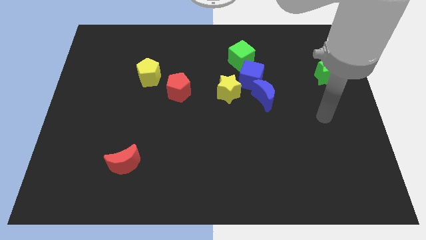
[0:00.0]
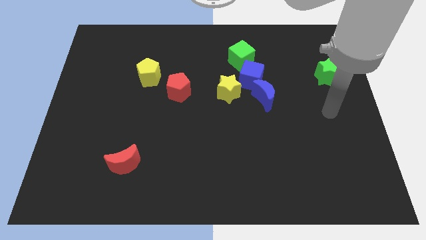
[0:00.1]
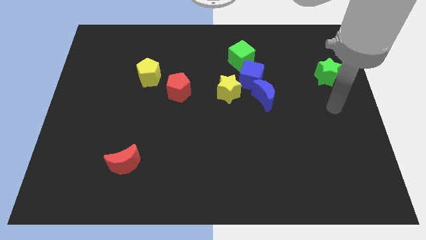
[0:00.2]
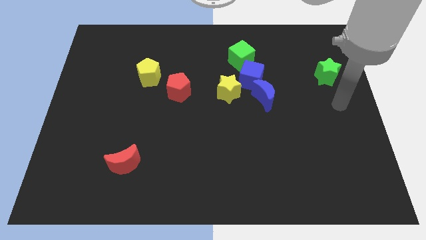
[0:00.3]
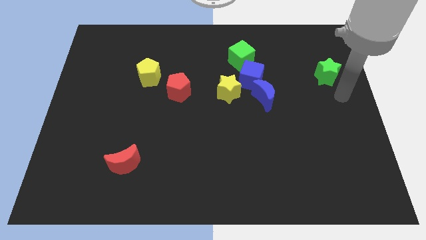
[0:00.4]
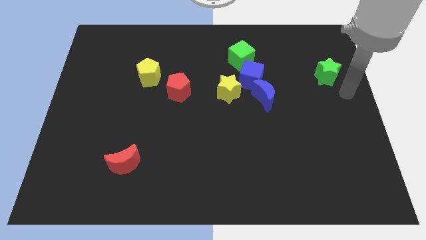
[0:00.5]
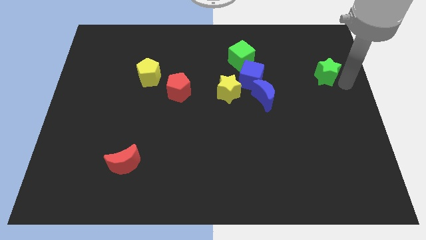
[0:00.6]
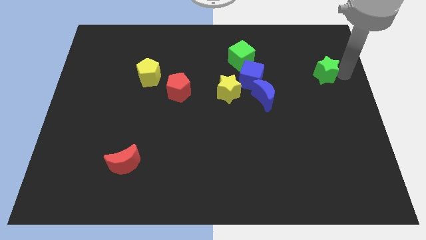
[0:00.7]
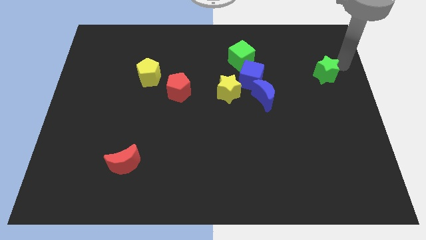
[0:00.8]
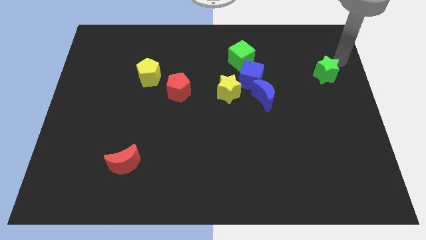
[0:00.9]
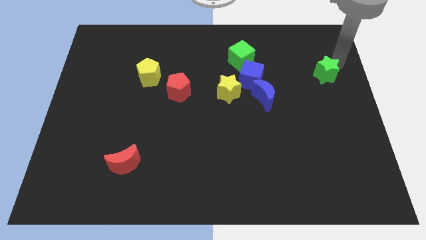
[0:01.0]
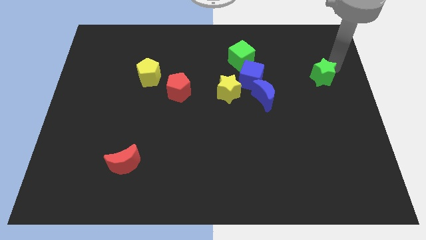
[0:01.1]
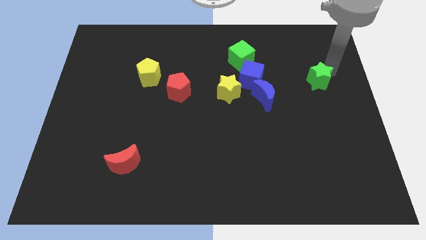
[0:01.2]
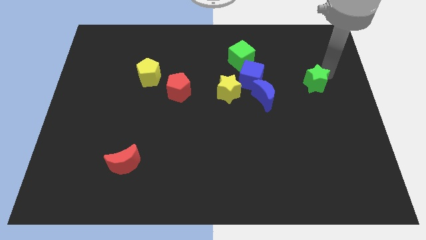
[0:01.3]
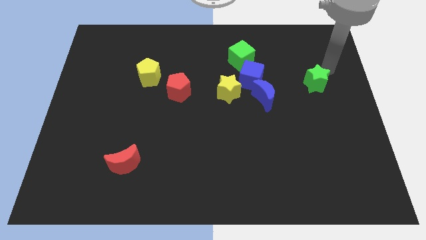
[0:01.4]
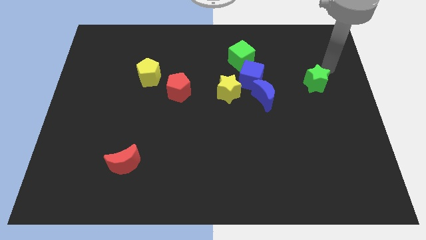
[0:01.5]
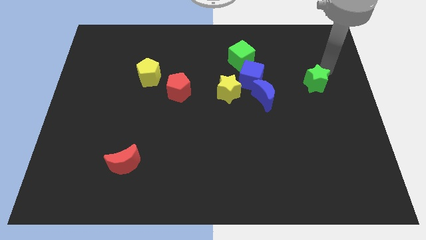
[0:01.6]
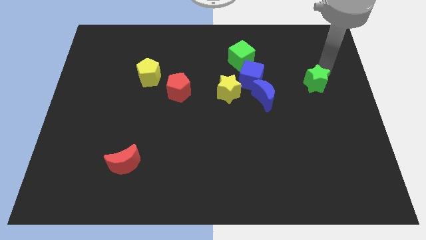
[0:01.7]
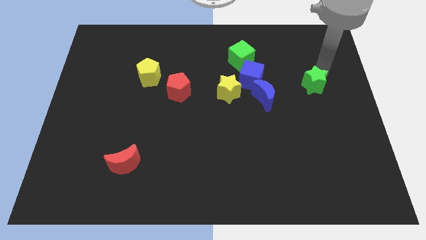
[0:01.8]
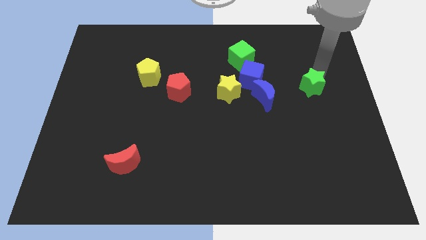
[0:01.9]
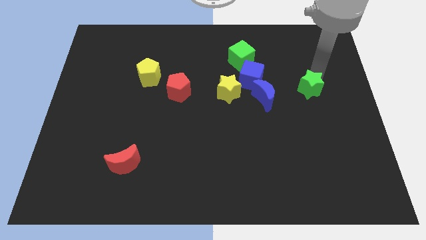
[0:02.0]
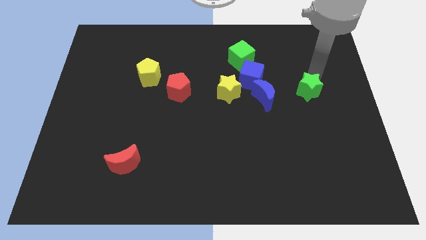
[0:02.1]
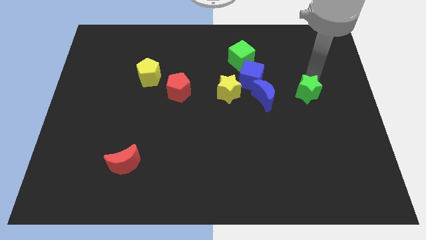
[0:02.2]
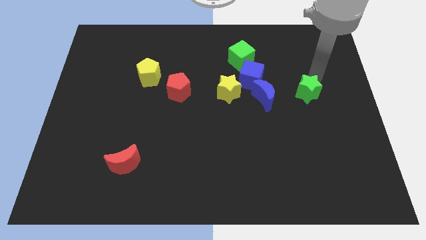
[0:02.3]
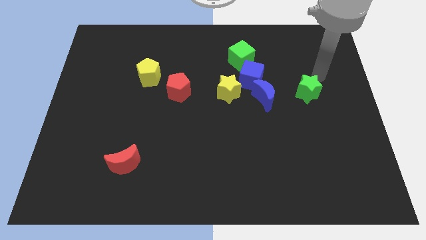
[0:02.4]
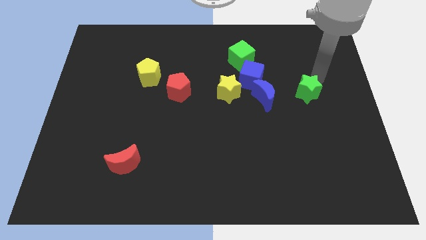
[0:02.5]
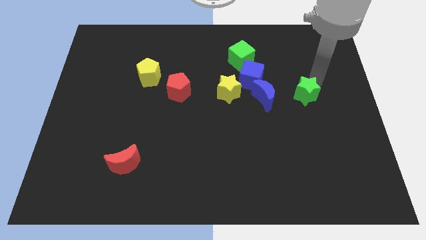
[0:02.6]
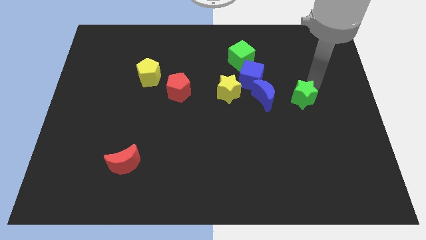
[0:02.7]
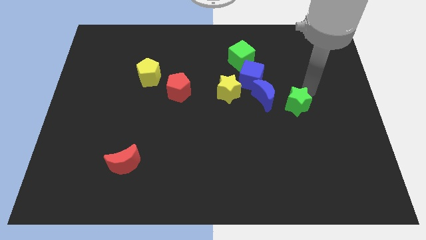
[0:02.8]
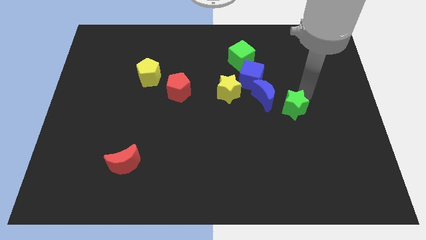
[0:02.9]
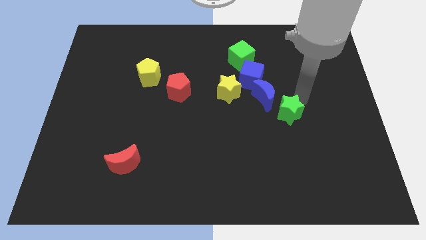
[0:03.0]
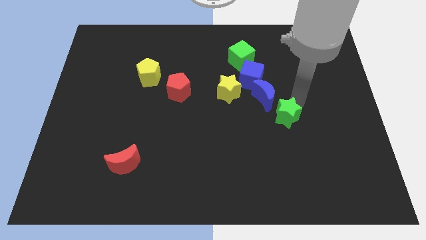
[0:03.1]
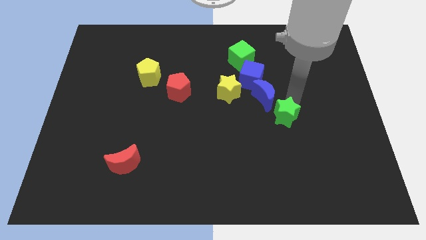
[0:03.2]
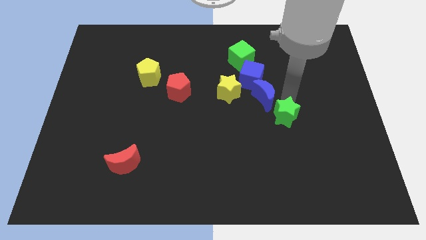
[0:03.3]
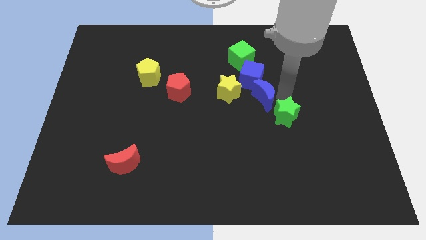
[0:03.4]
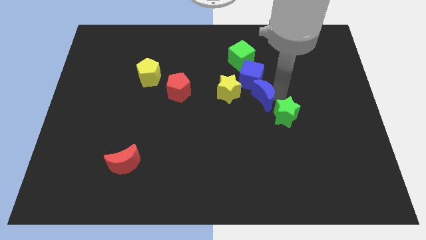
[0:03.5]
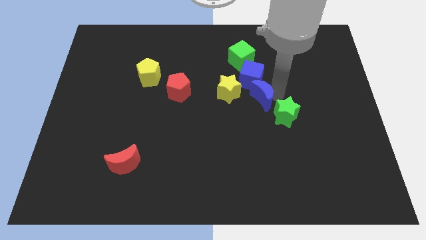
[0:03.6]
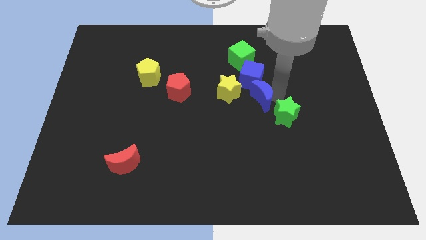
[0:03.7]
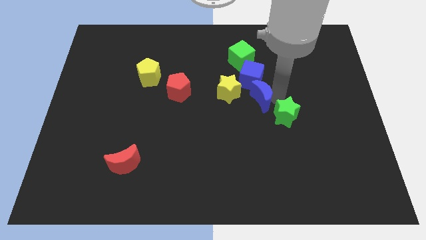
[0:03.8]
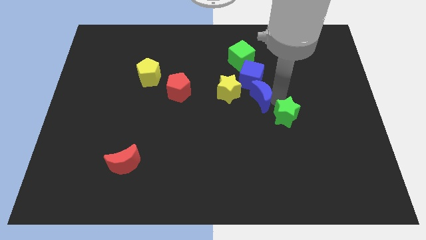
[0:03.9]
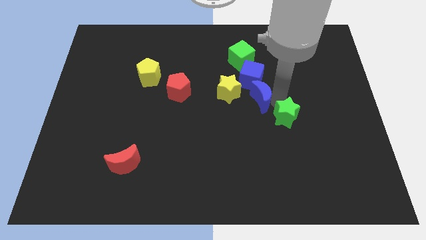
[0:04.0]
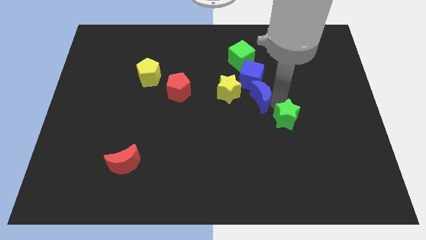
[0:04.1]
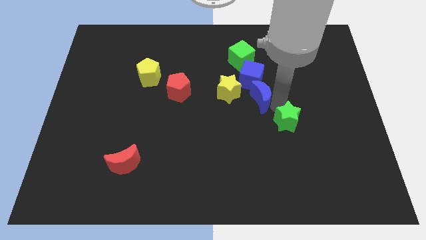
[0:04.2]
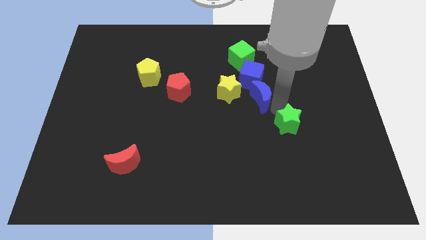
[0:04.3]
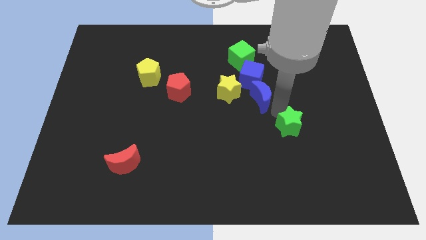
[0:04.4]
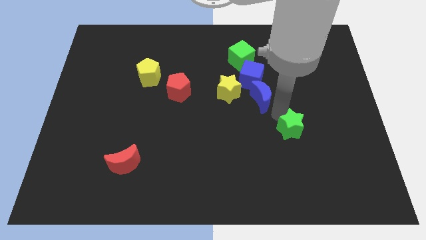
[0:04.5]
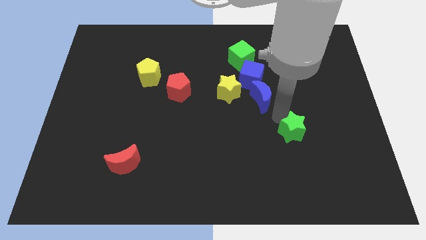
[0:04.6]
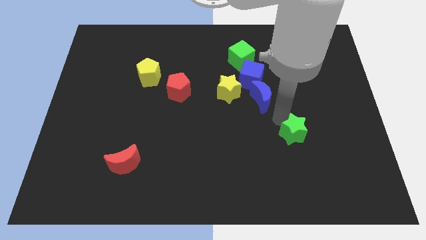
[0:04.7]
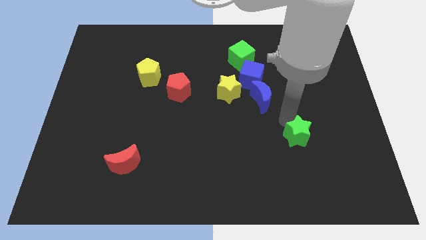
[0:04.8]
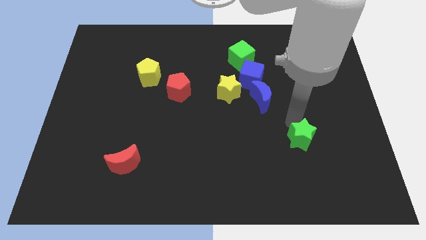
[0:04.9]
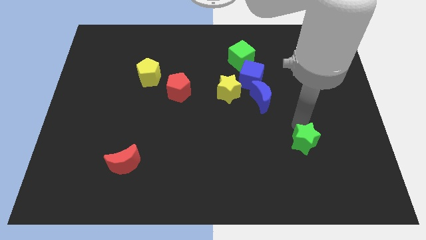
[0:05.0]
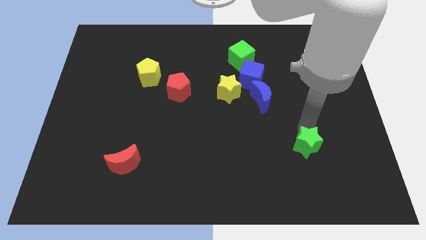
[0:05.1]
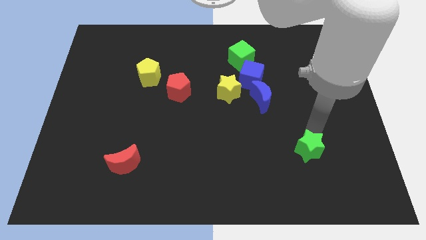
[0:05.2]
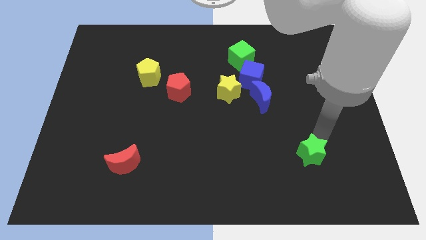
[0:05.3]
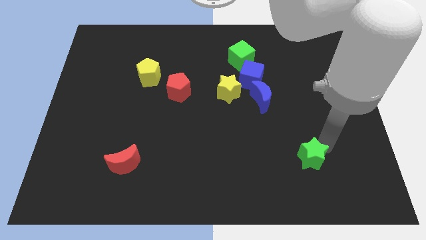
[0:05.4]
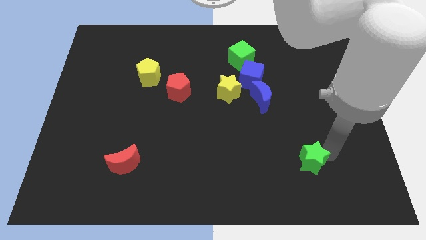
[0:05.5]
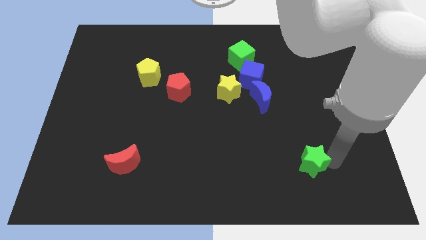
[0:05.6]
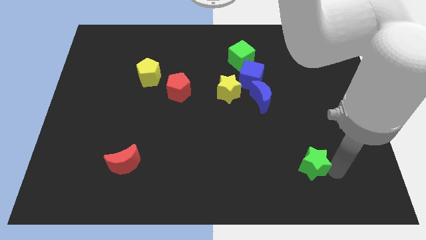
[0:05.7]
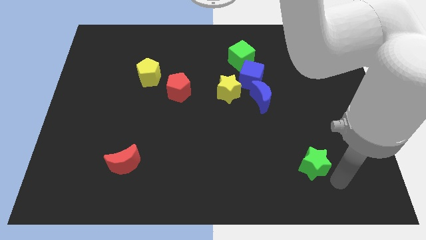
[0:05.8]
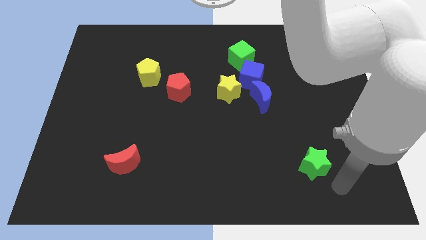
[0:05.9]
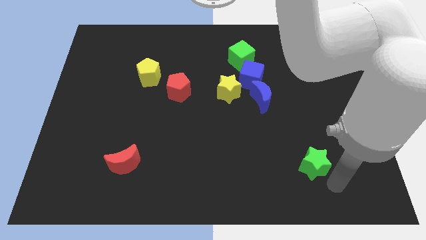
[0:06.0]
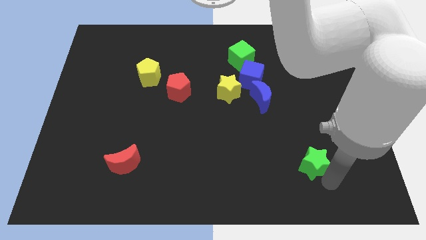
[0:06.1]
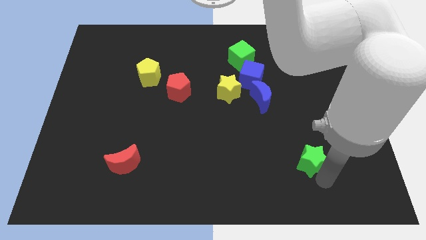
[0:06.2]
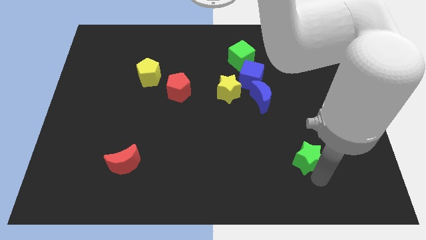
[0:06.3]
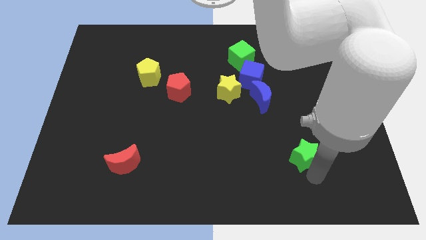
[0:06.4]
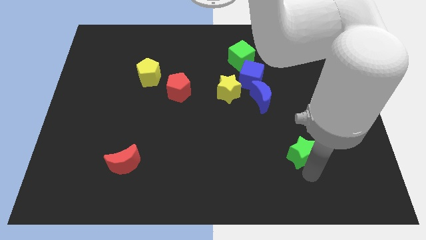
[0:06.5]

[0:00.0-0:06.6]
slide the green star down and then to the left

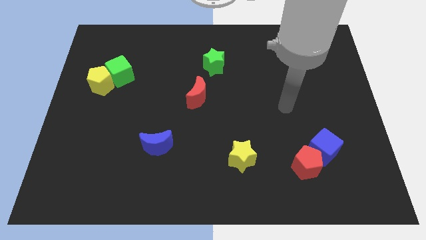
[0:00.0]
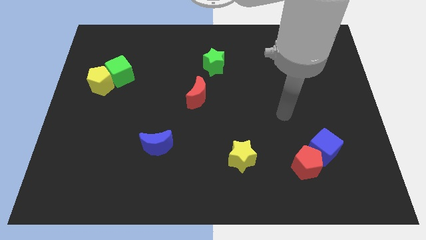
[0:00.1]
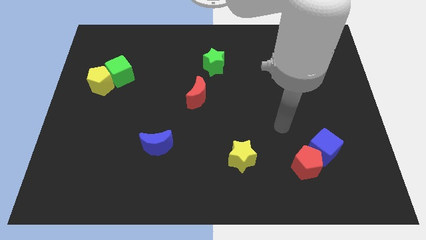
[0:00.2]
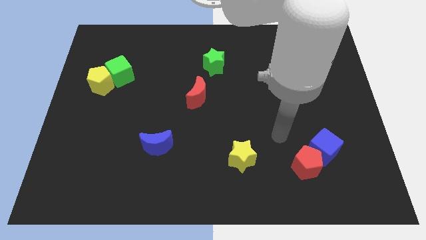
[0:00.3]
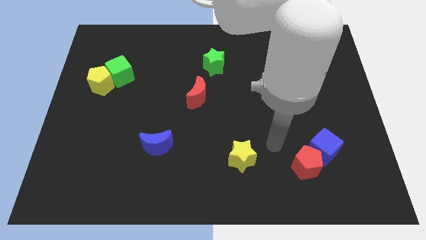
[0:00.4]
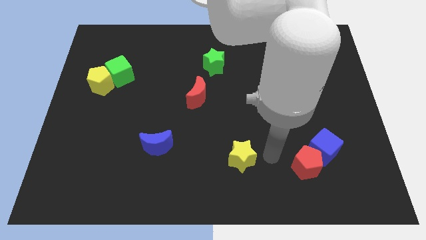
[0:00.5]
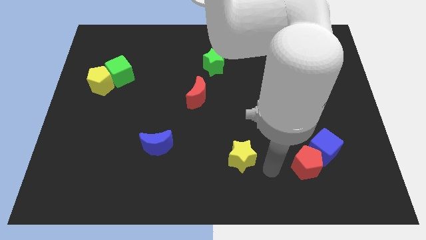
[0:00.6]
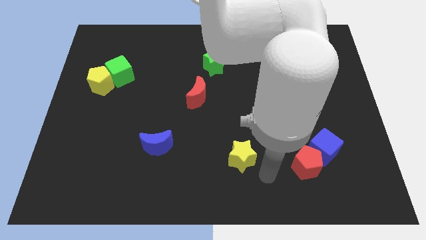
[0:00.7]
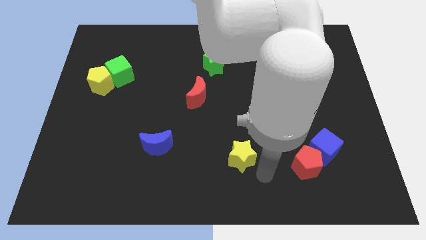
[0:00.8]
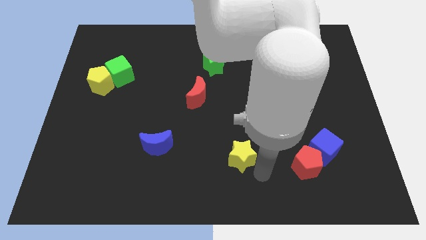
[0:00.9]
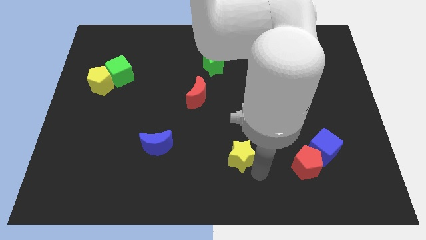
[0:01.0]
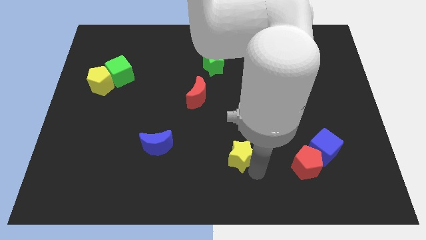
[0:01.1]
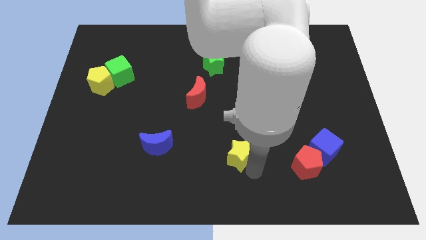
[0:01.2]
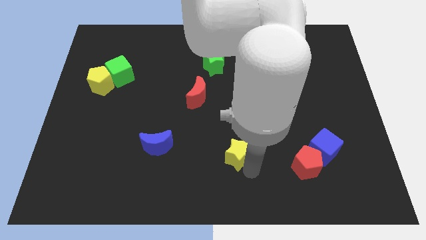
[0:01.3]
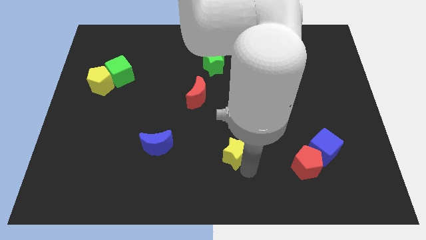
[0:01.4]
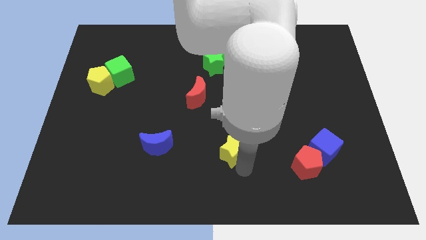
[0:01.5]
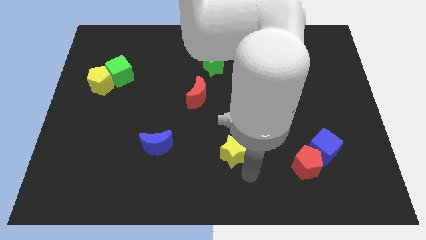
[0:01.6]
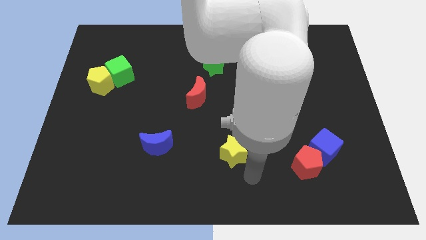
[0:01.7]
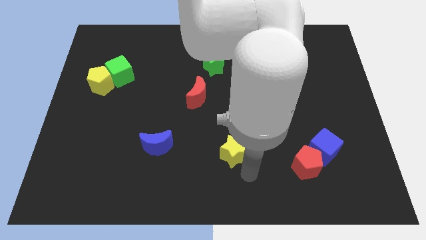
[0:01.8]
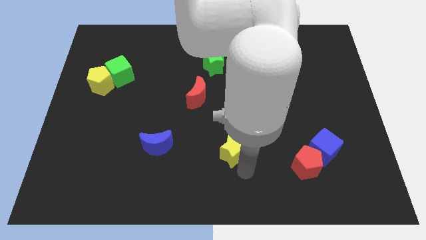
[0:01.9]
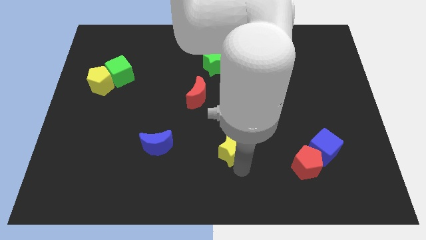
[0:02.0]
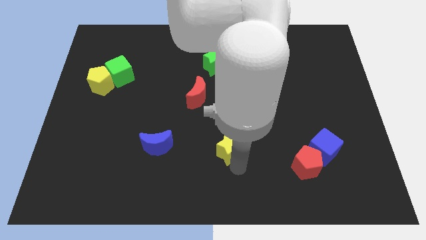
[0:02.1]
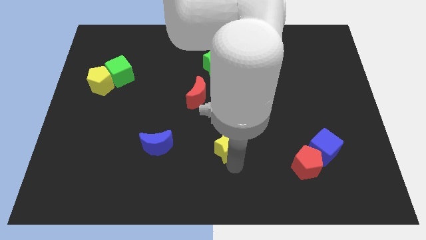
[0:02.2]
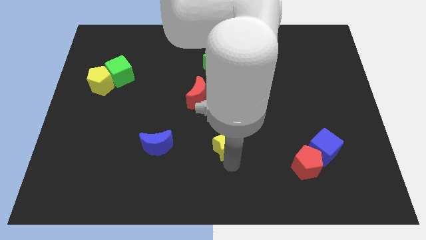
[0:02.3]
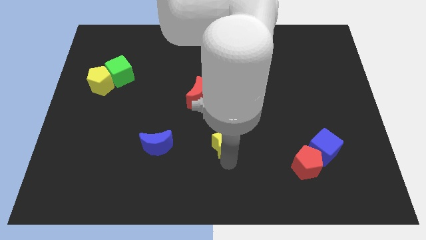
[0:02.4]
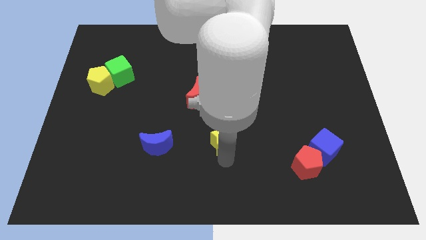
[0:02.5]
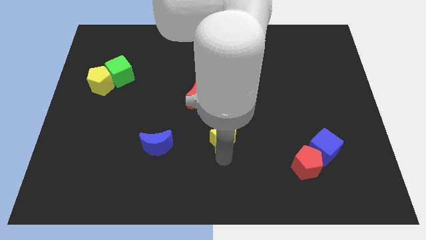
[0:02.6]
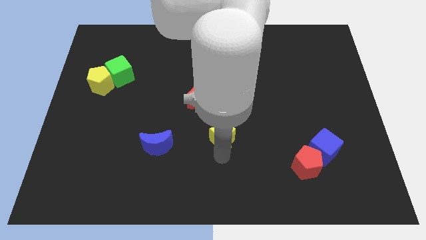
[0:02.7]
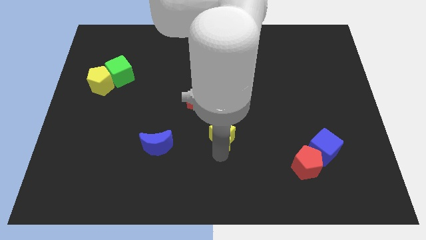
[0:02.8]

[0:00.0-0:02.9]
slightly move the yellow star upwards and to the left diagonally
